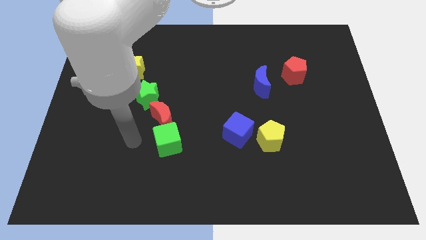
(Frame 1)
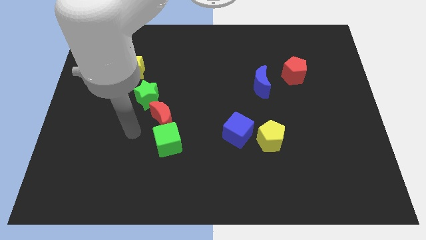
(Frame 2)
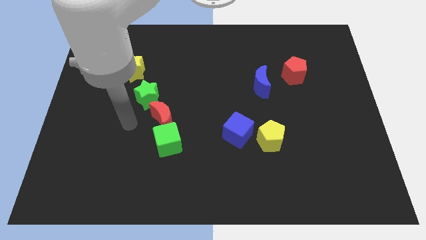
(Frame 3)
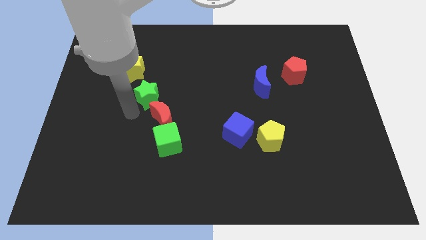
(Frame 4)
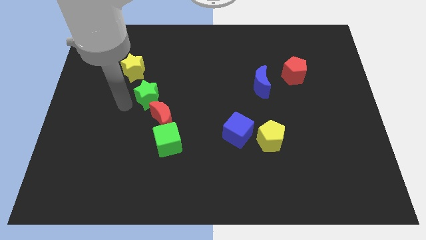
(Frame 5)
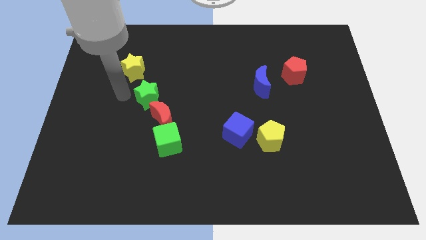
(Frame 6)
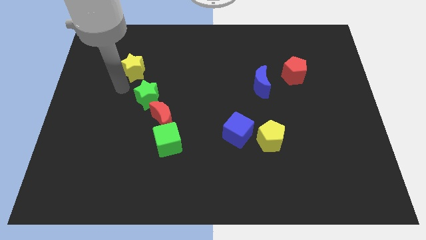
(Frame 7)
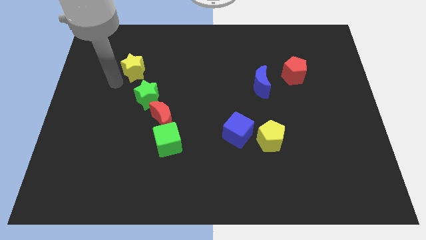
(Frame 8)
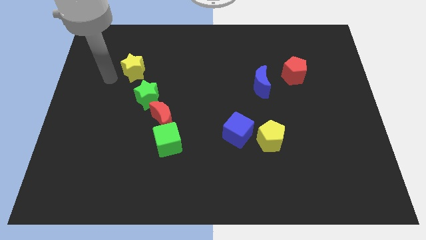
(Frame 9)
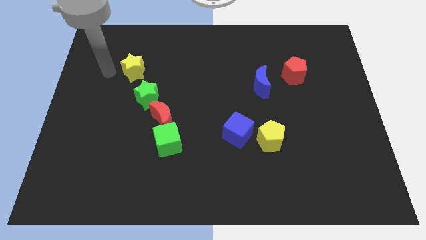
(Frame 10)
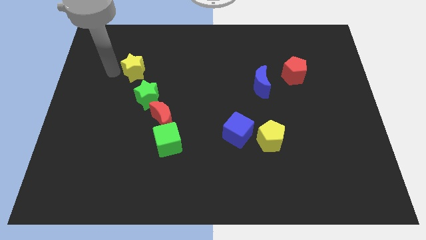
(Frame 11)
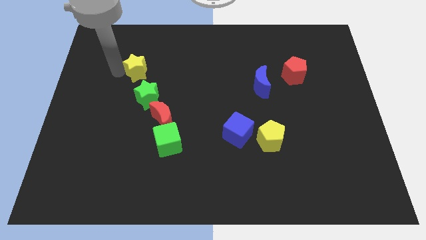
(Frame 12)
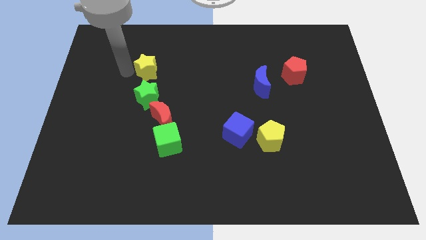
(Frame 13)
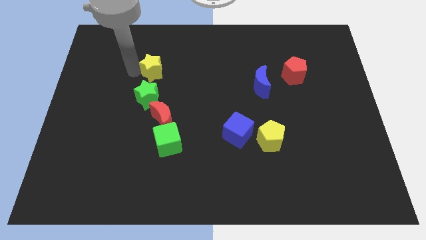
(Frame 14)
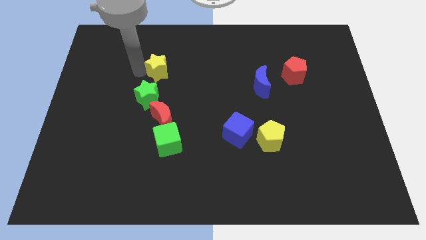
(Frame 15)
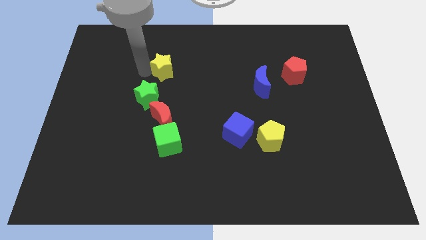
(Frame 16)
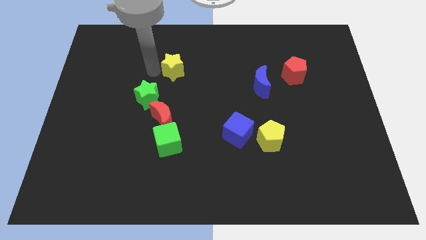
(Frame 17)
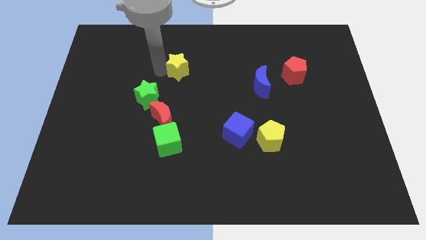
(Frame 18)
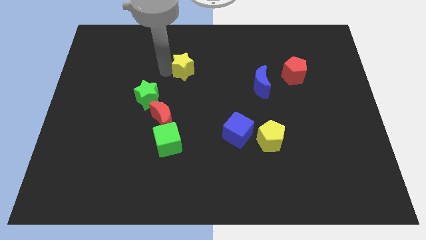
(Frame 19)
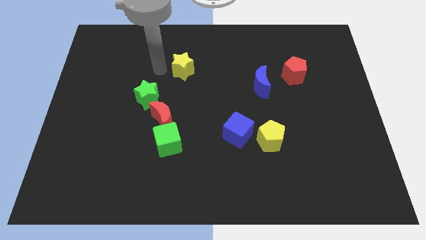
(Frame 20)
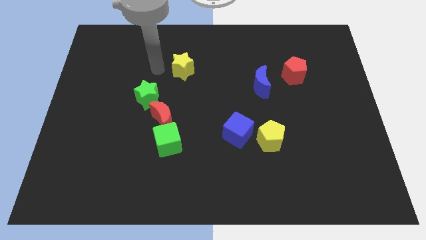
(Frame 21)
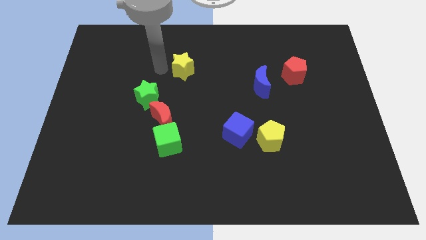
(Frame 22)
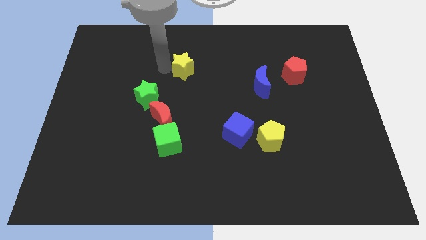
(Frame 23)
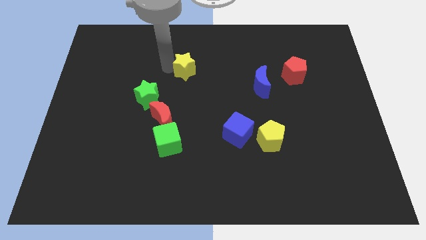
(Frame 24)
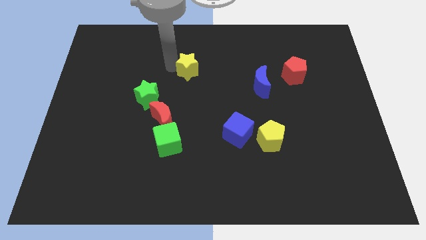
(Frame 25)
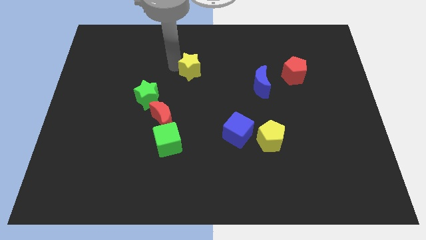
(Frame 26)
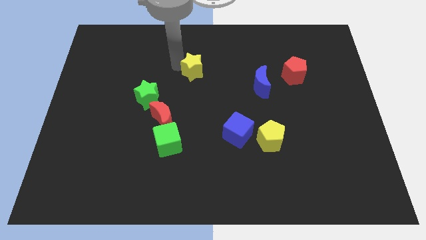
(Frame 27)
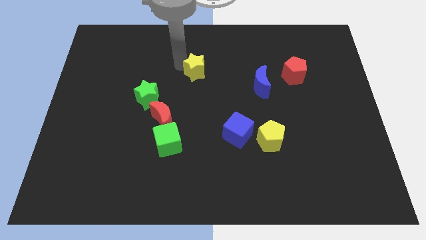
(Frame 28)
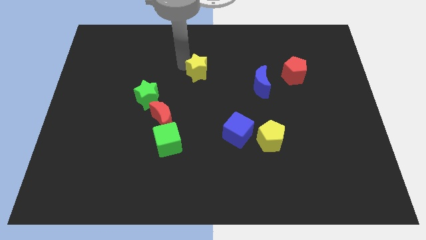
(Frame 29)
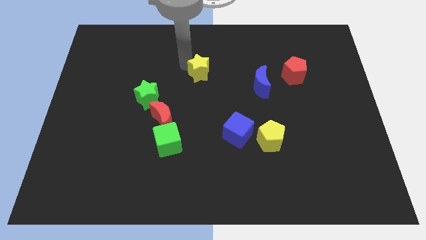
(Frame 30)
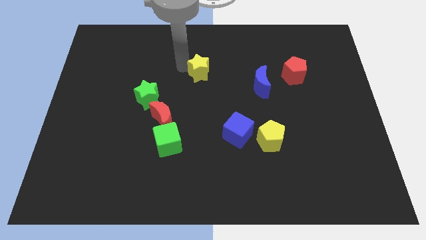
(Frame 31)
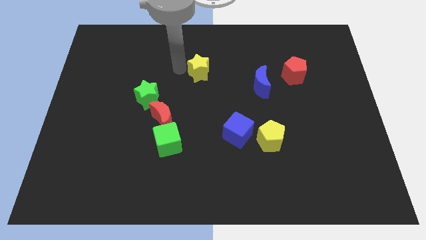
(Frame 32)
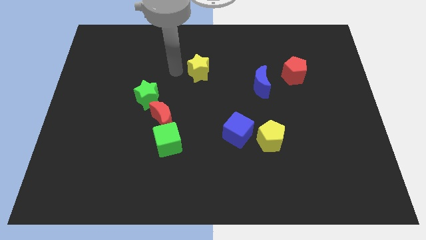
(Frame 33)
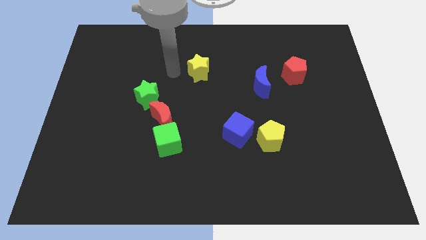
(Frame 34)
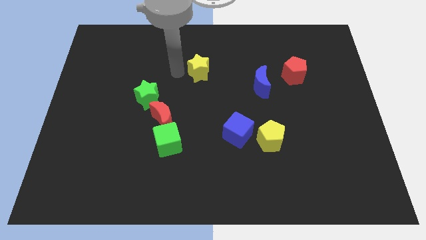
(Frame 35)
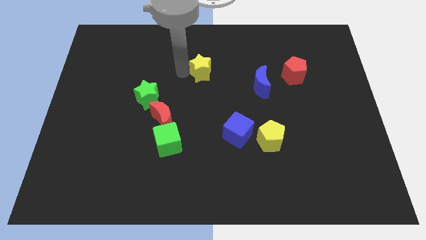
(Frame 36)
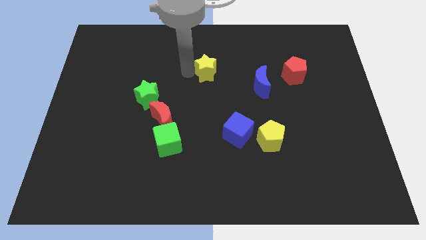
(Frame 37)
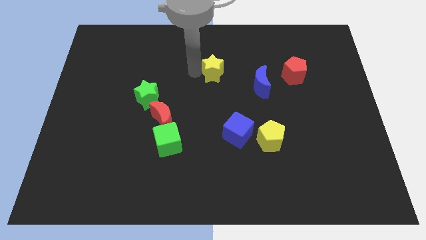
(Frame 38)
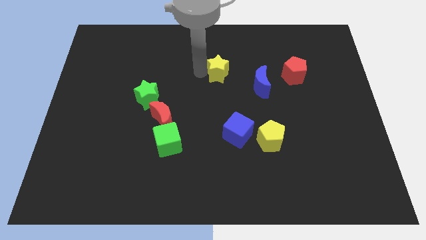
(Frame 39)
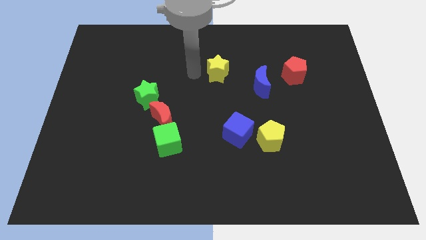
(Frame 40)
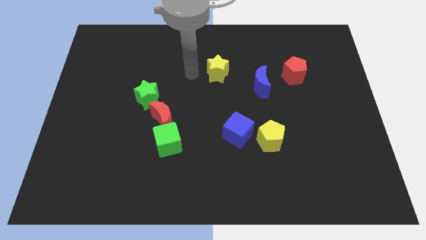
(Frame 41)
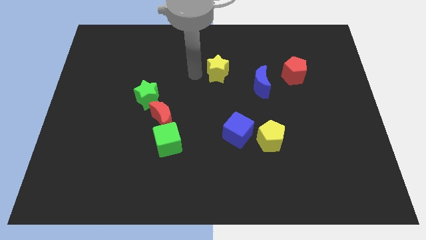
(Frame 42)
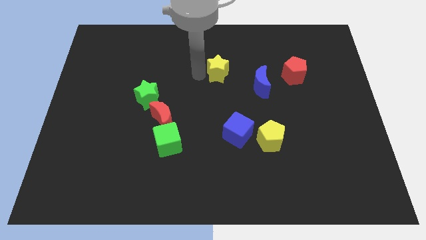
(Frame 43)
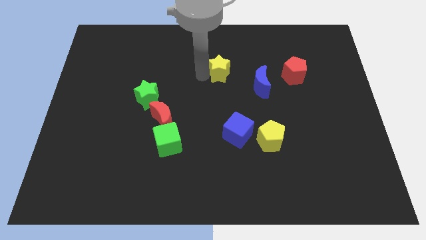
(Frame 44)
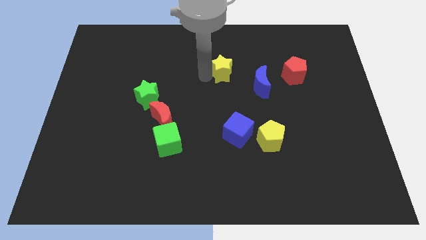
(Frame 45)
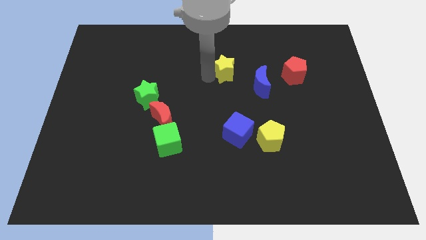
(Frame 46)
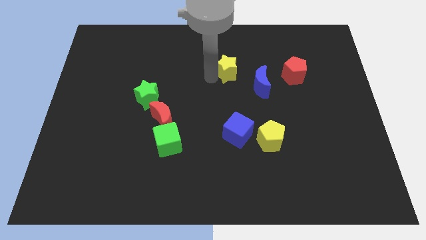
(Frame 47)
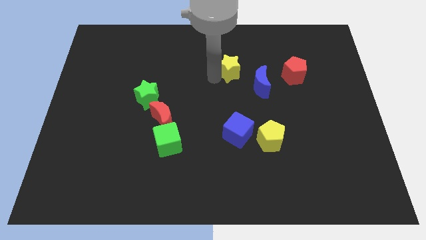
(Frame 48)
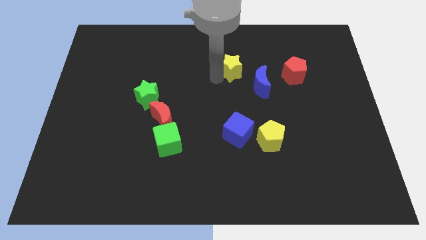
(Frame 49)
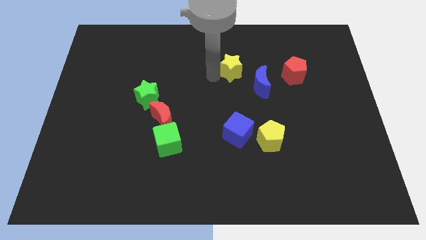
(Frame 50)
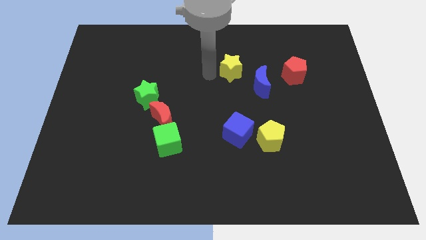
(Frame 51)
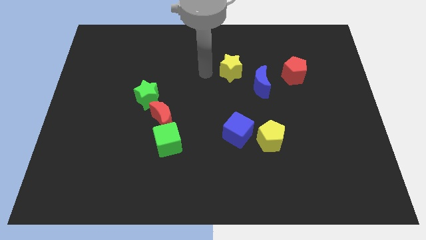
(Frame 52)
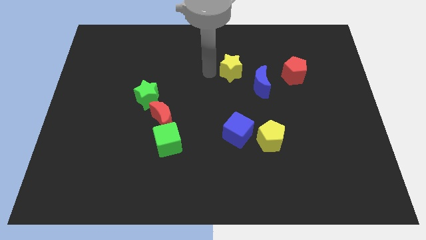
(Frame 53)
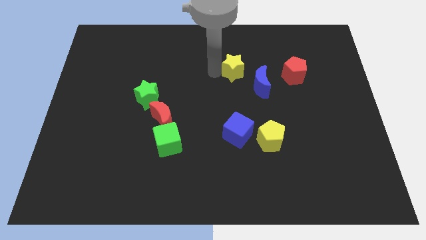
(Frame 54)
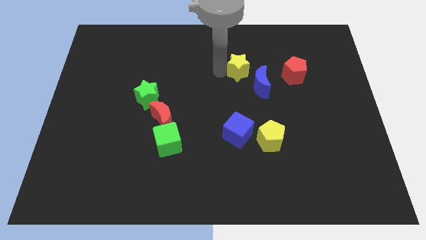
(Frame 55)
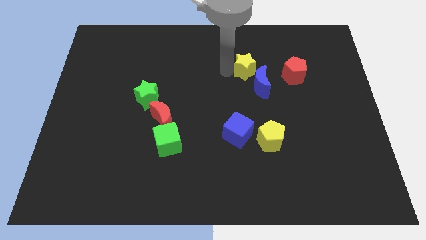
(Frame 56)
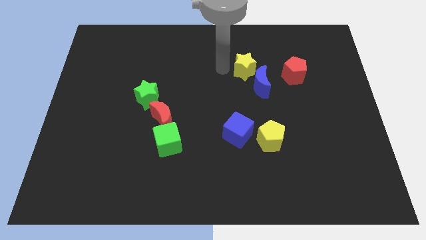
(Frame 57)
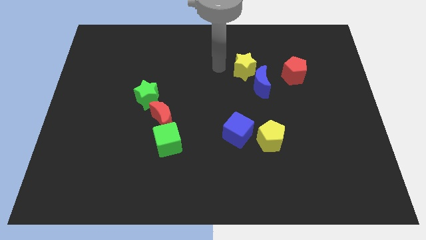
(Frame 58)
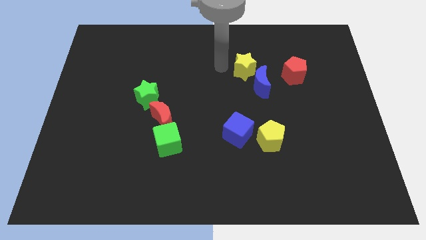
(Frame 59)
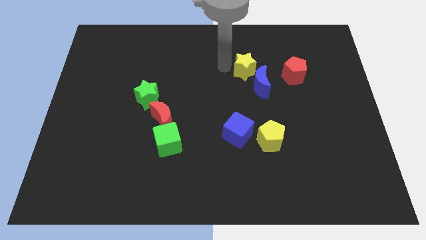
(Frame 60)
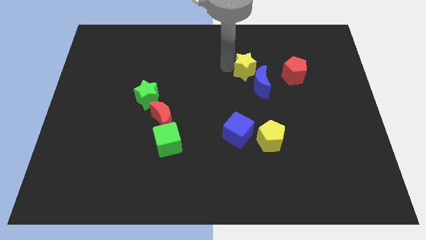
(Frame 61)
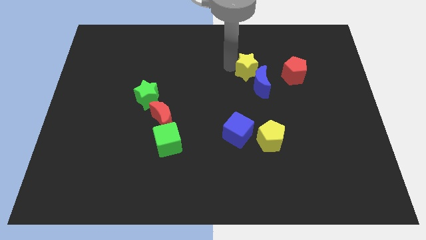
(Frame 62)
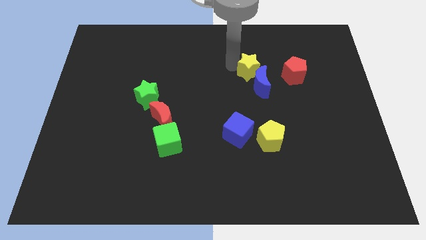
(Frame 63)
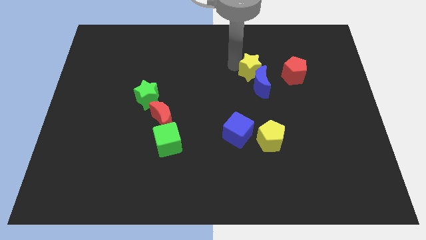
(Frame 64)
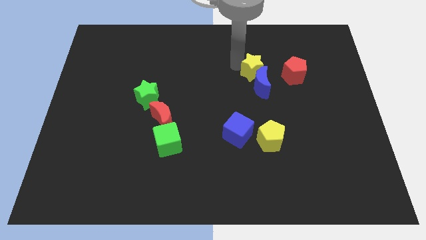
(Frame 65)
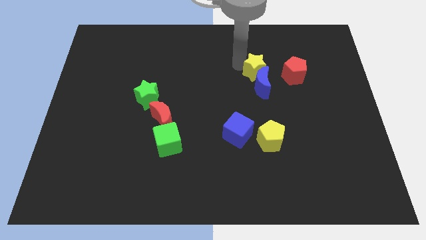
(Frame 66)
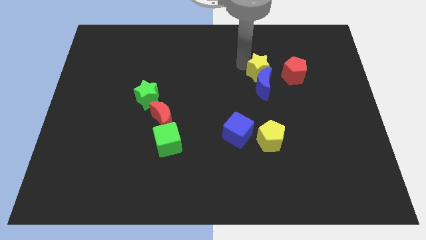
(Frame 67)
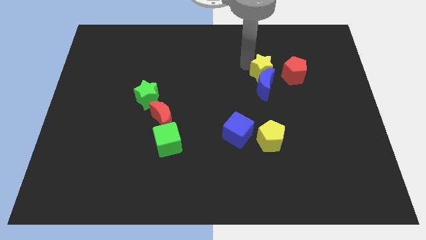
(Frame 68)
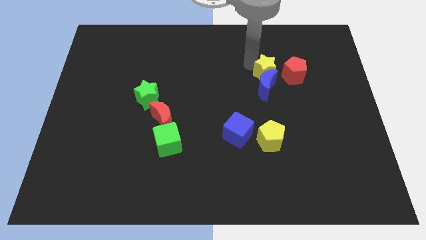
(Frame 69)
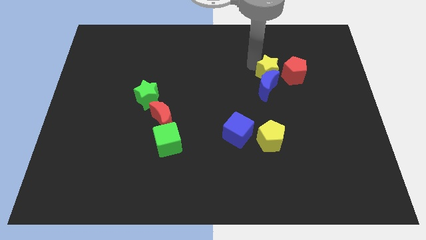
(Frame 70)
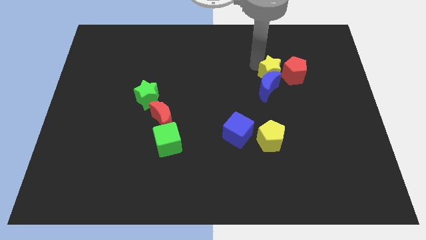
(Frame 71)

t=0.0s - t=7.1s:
put the yellow star next to the red pentagon
